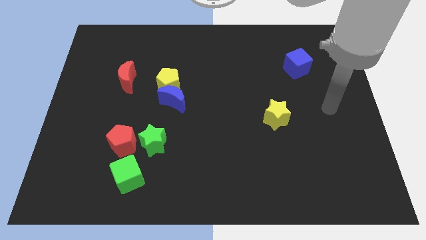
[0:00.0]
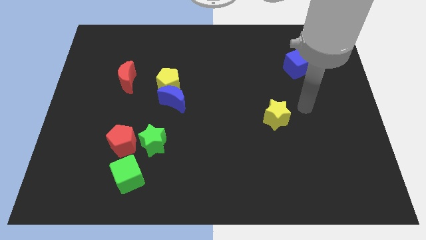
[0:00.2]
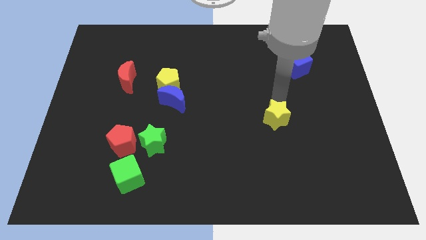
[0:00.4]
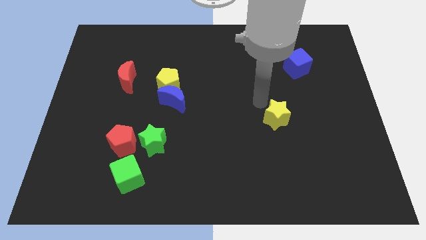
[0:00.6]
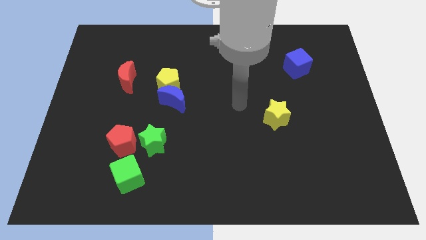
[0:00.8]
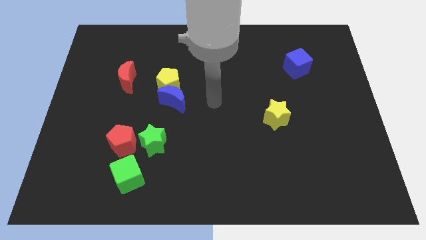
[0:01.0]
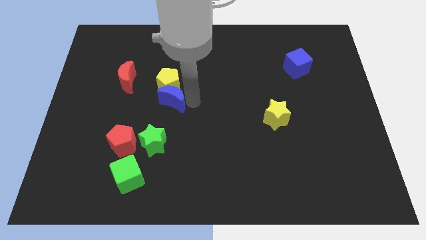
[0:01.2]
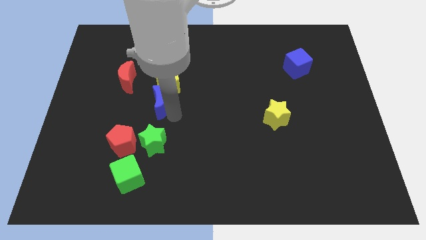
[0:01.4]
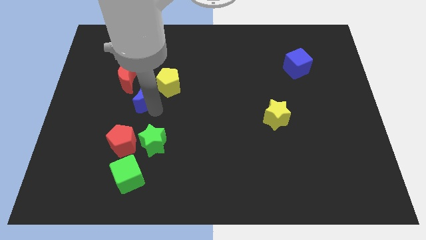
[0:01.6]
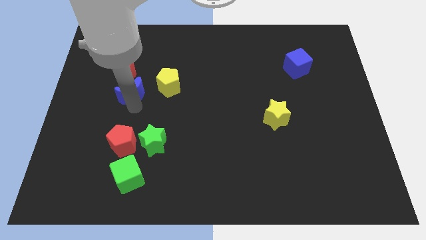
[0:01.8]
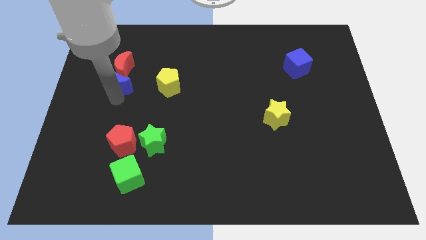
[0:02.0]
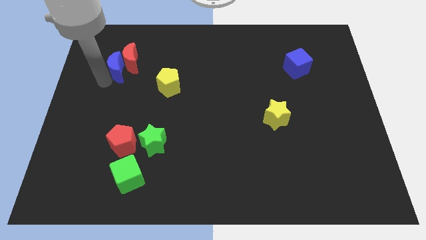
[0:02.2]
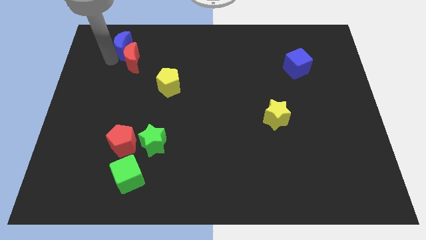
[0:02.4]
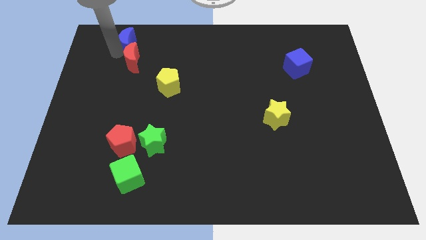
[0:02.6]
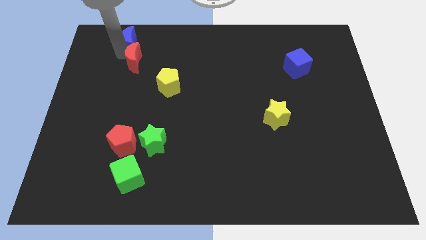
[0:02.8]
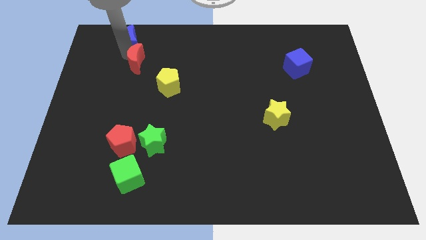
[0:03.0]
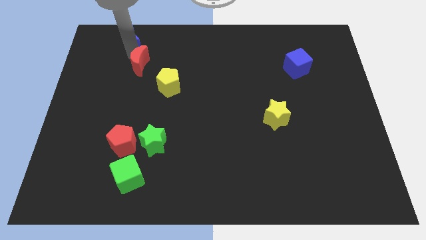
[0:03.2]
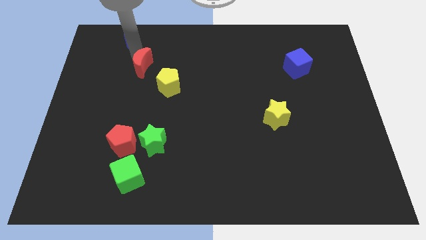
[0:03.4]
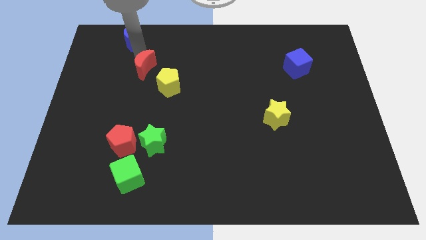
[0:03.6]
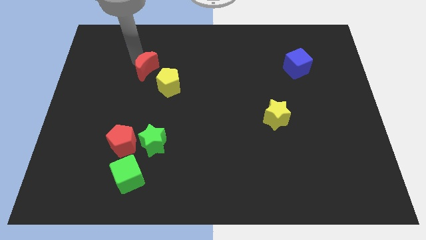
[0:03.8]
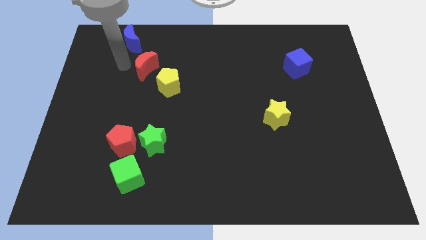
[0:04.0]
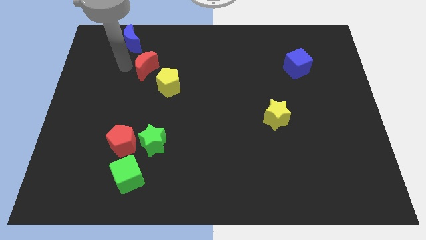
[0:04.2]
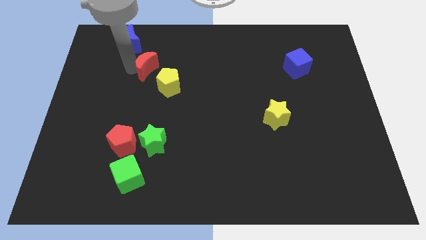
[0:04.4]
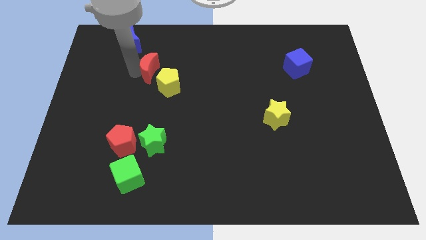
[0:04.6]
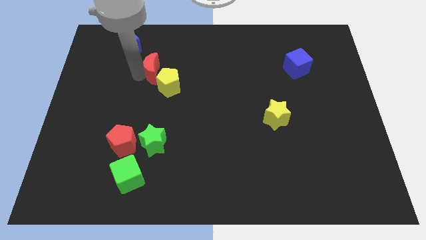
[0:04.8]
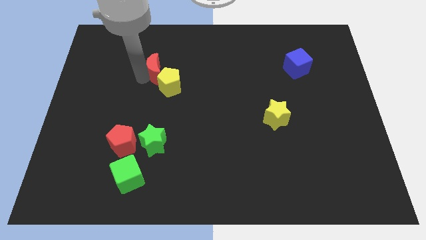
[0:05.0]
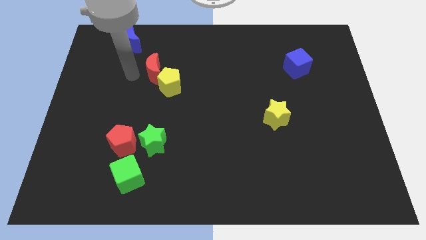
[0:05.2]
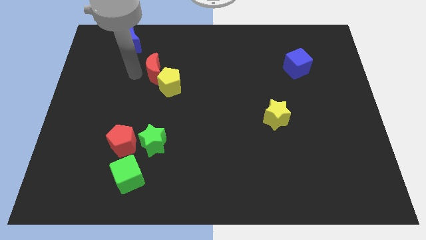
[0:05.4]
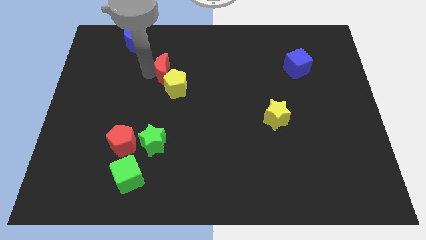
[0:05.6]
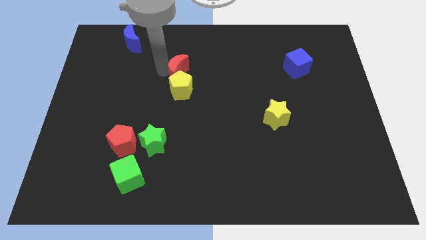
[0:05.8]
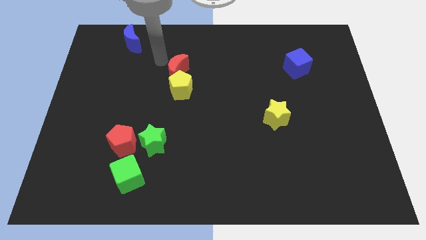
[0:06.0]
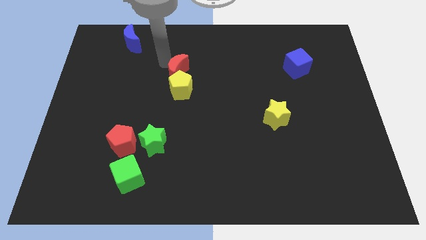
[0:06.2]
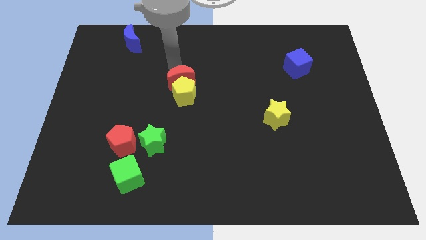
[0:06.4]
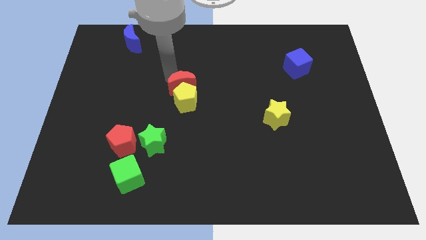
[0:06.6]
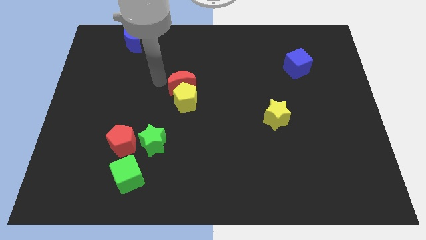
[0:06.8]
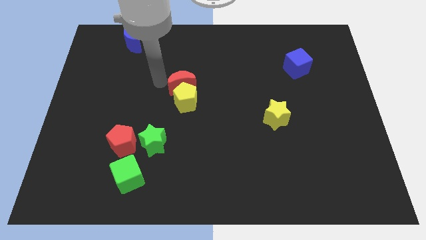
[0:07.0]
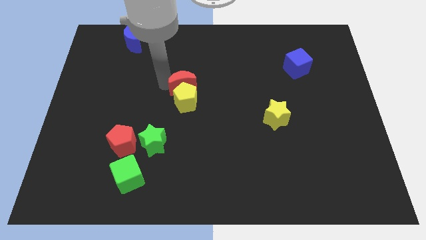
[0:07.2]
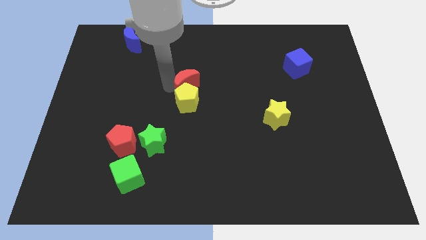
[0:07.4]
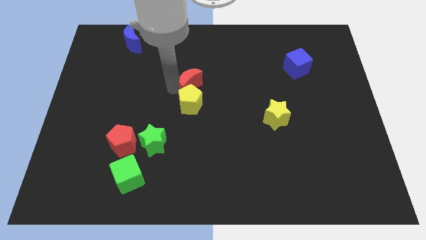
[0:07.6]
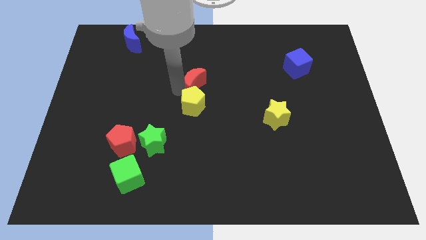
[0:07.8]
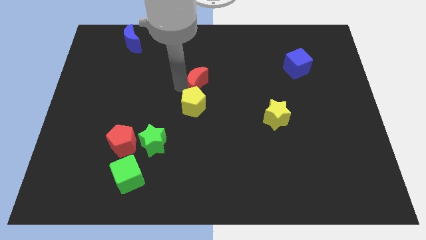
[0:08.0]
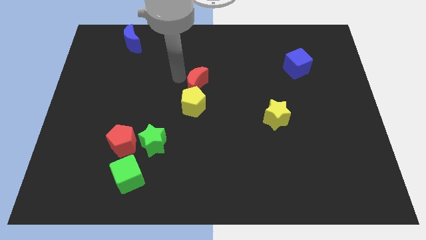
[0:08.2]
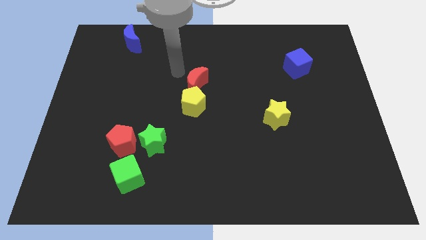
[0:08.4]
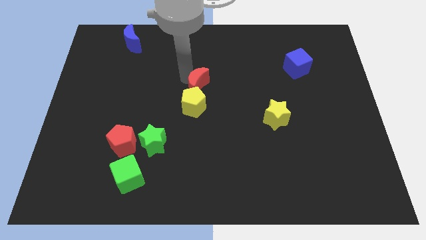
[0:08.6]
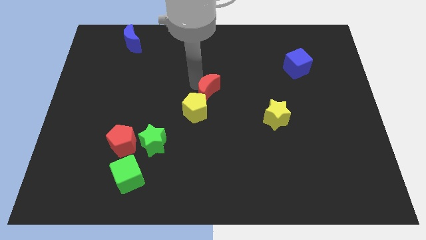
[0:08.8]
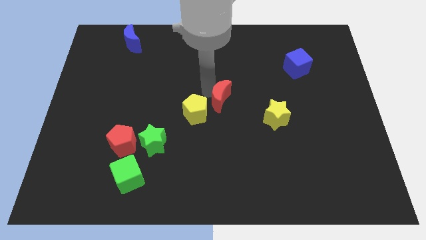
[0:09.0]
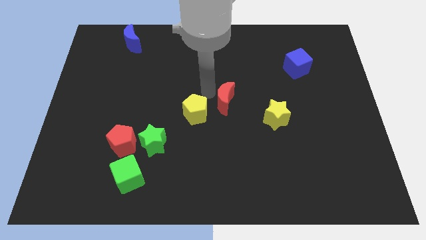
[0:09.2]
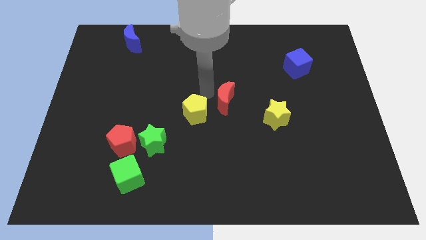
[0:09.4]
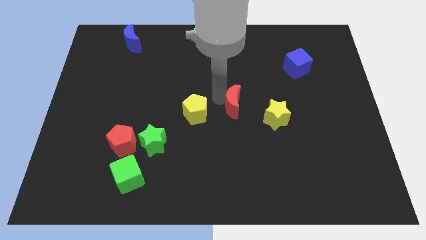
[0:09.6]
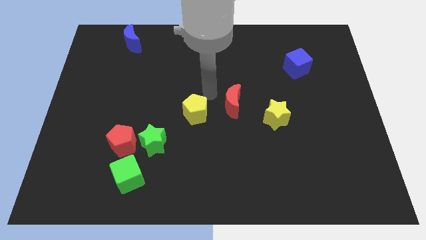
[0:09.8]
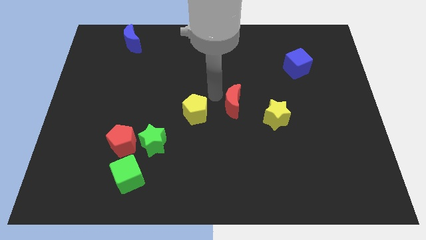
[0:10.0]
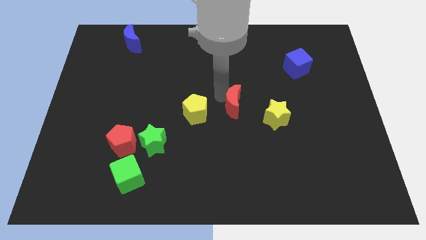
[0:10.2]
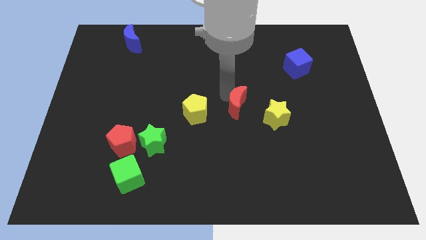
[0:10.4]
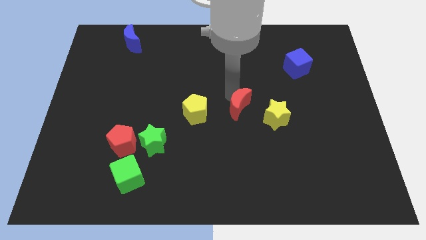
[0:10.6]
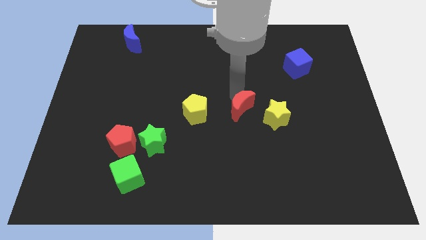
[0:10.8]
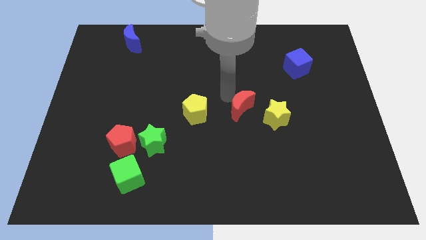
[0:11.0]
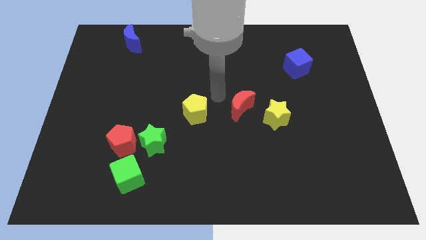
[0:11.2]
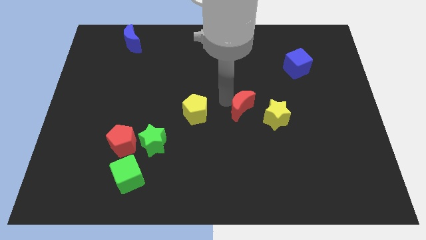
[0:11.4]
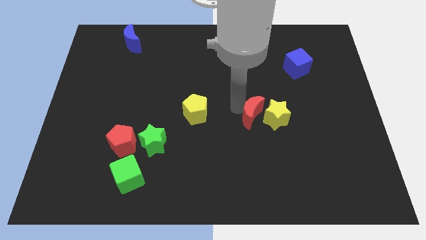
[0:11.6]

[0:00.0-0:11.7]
slide the red moon close to the yellow star

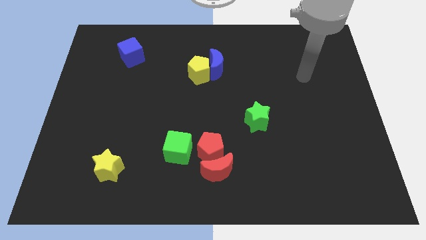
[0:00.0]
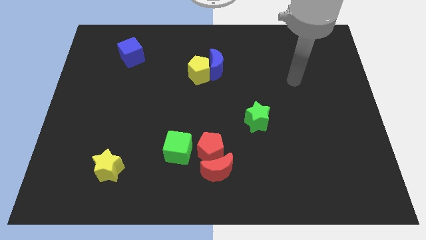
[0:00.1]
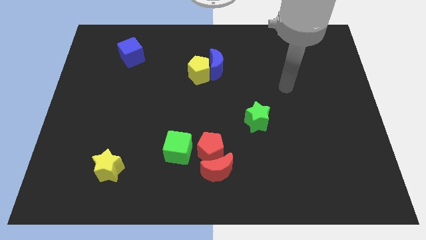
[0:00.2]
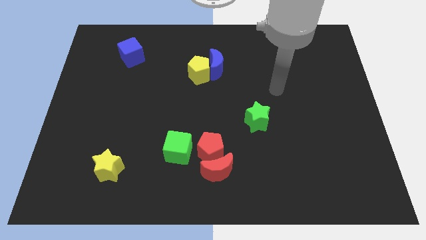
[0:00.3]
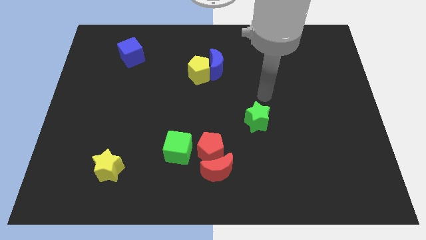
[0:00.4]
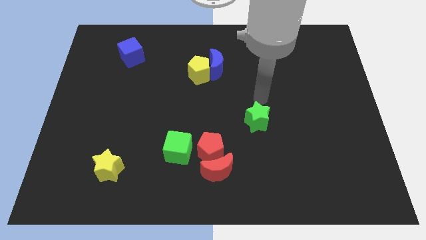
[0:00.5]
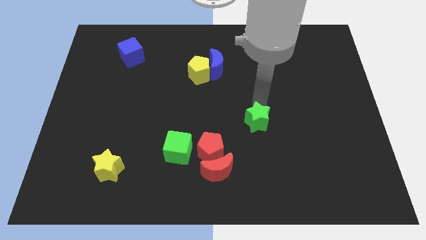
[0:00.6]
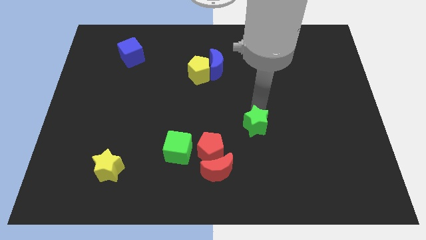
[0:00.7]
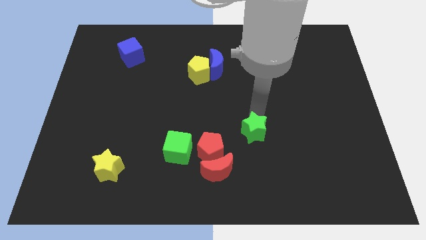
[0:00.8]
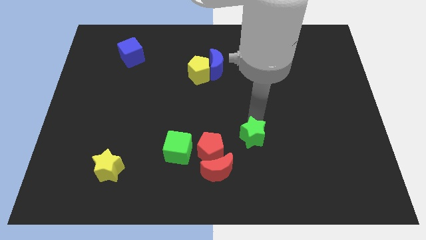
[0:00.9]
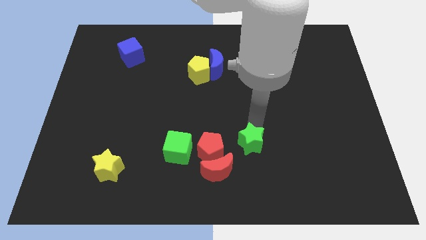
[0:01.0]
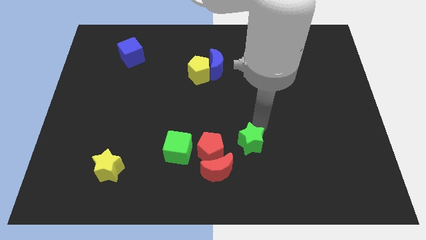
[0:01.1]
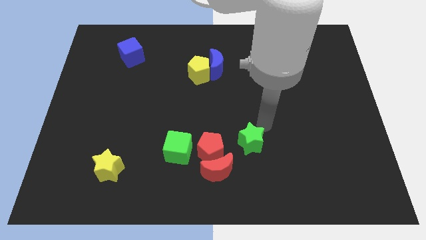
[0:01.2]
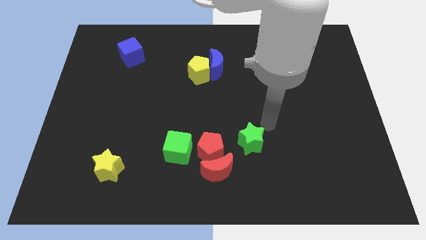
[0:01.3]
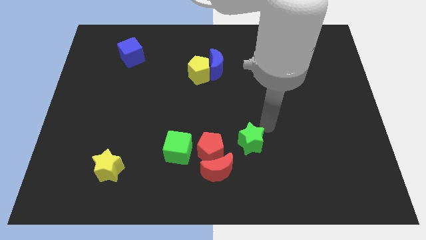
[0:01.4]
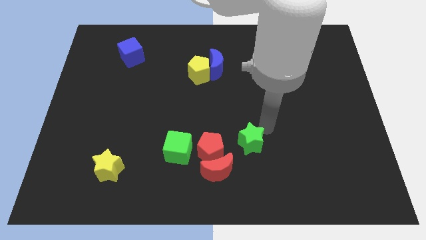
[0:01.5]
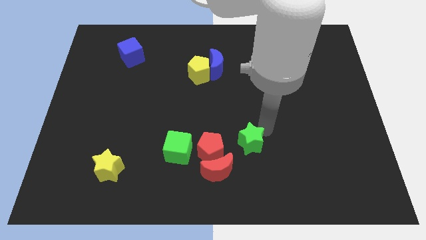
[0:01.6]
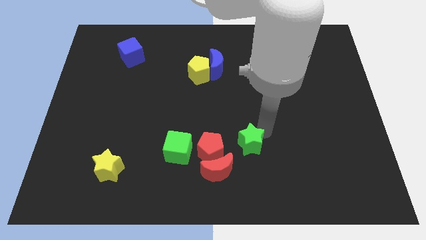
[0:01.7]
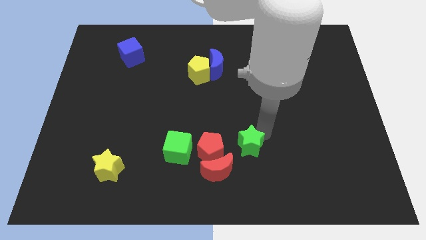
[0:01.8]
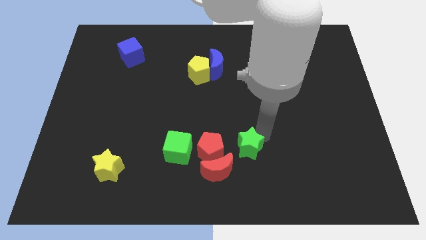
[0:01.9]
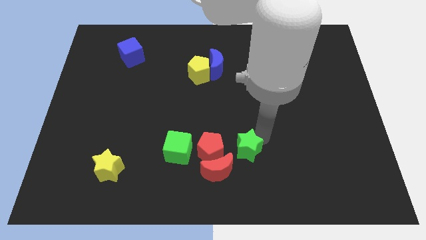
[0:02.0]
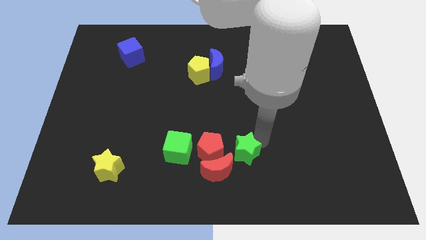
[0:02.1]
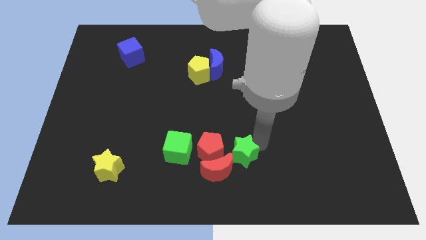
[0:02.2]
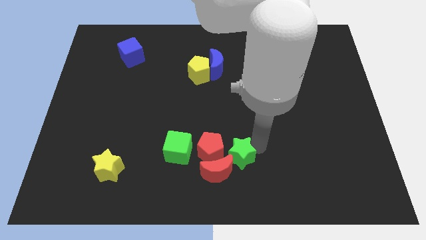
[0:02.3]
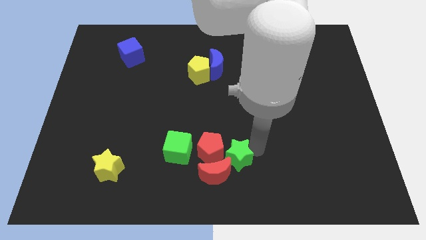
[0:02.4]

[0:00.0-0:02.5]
push the green star to the red moon
